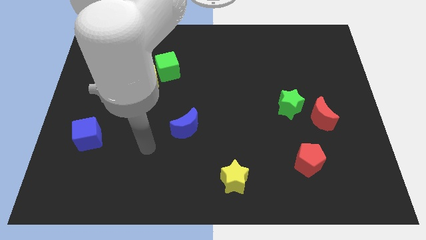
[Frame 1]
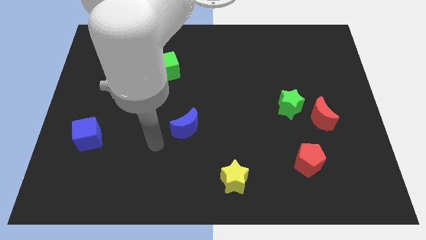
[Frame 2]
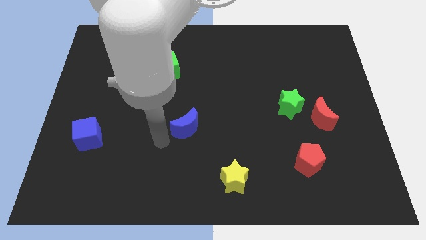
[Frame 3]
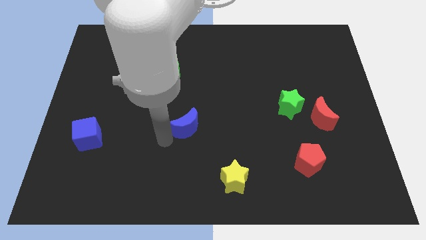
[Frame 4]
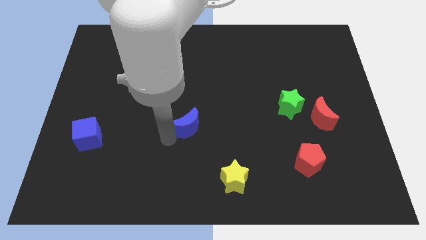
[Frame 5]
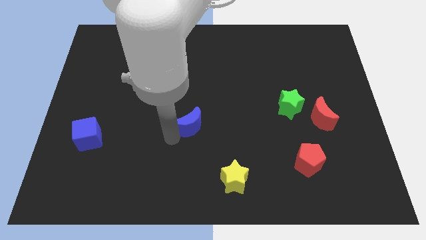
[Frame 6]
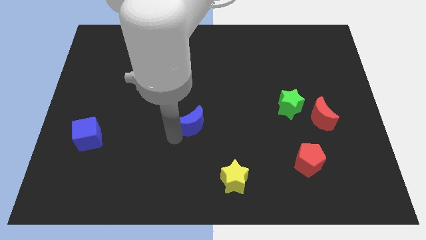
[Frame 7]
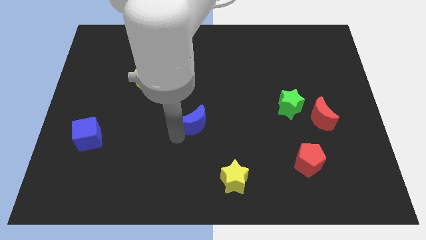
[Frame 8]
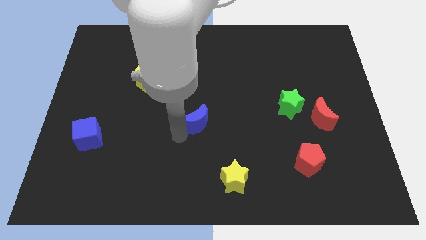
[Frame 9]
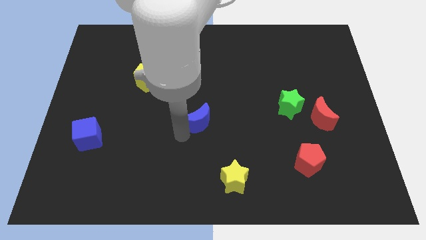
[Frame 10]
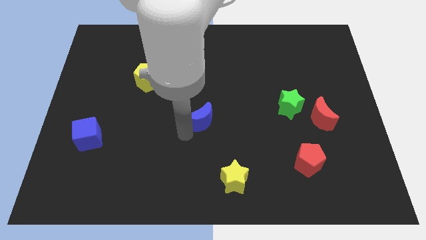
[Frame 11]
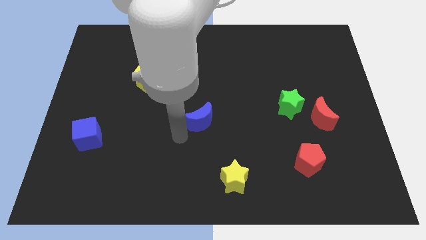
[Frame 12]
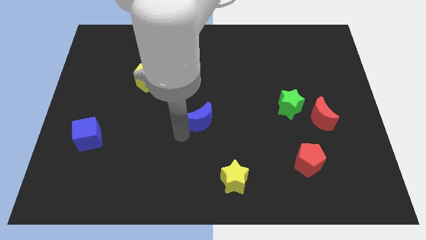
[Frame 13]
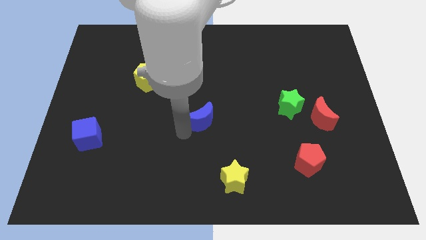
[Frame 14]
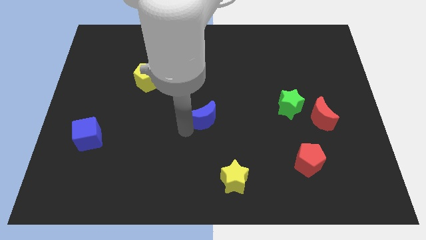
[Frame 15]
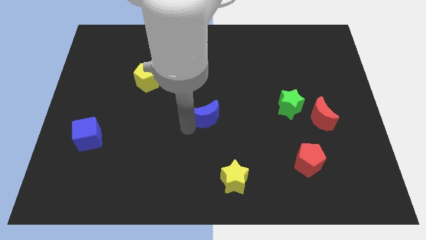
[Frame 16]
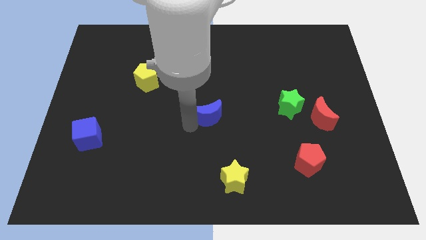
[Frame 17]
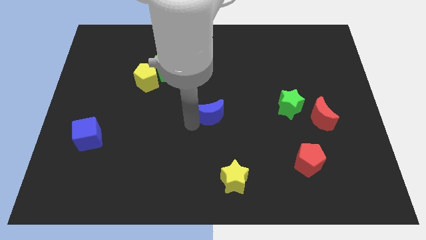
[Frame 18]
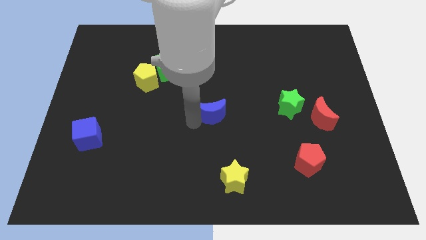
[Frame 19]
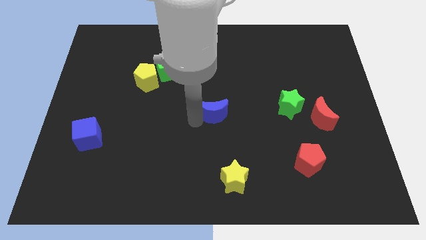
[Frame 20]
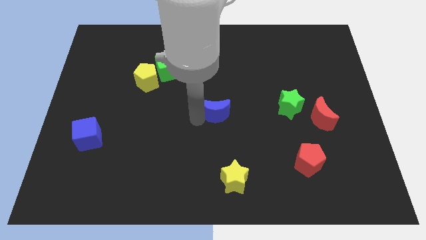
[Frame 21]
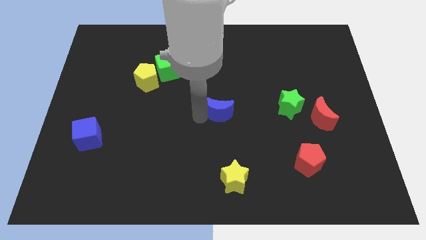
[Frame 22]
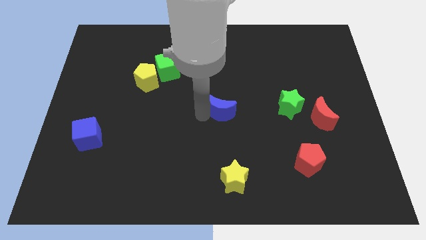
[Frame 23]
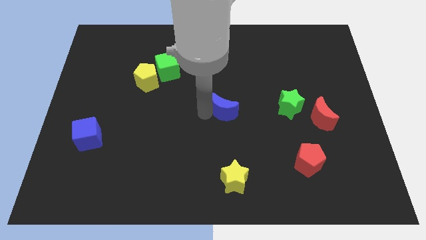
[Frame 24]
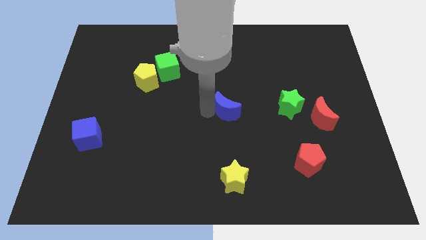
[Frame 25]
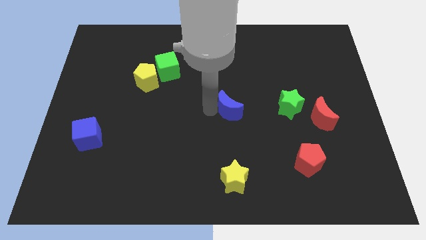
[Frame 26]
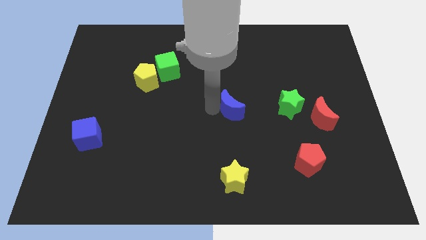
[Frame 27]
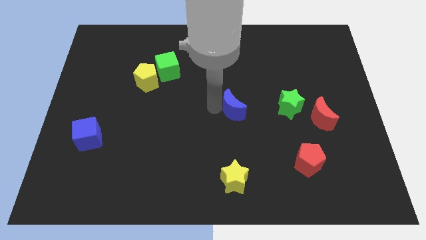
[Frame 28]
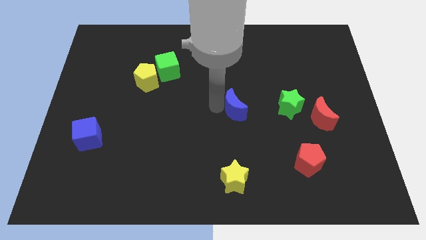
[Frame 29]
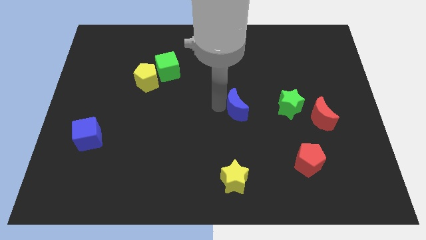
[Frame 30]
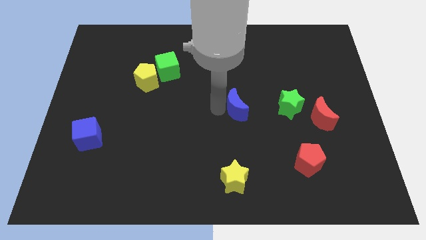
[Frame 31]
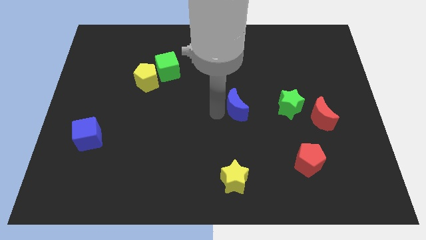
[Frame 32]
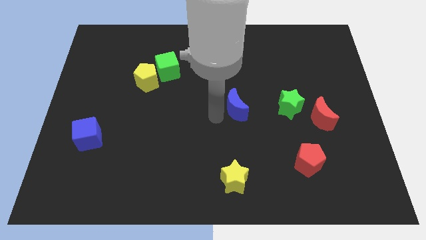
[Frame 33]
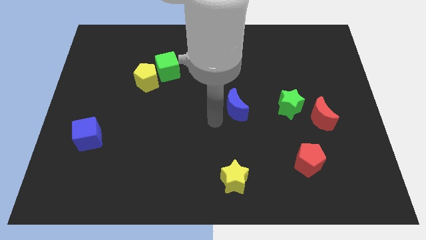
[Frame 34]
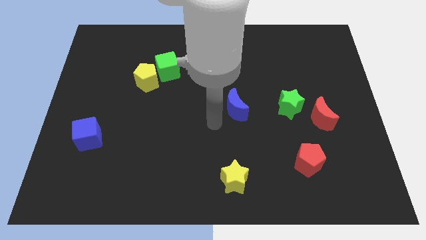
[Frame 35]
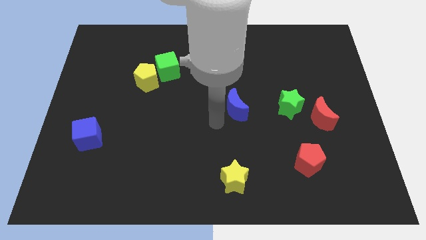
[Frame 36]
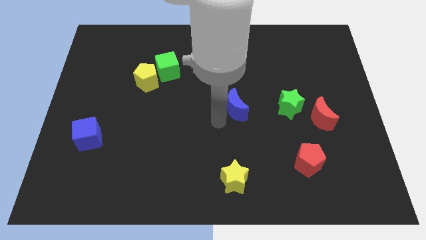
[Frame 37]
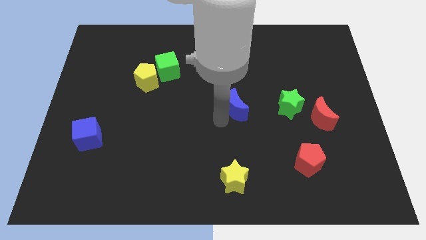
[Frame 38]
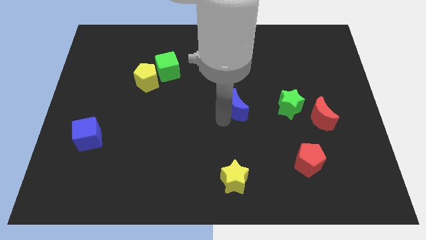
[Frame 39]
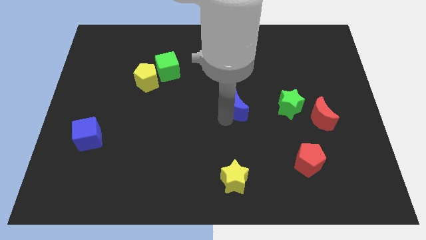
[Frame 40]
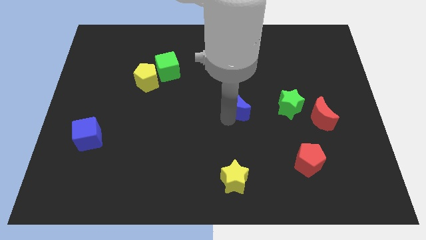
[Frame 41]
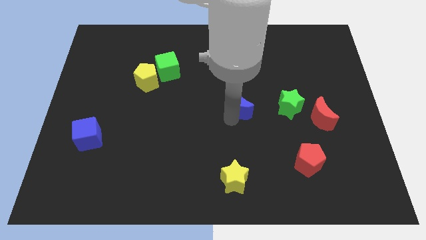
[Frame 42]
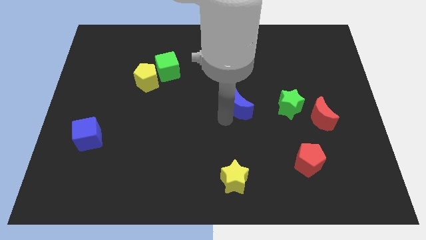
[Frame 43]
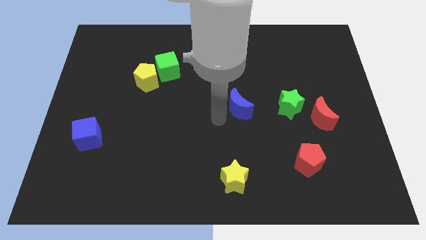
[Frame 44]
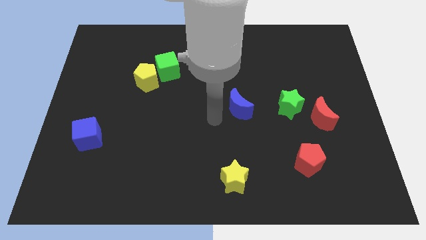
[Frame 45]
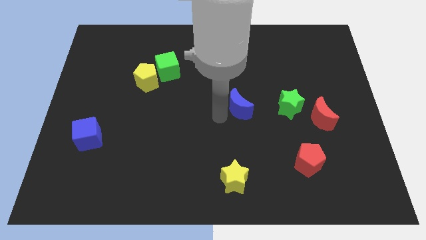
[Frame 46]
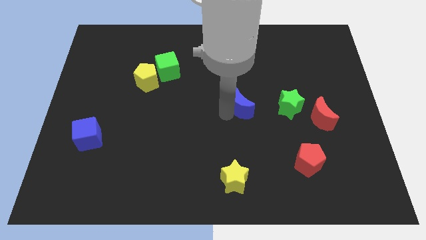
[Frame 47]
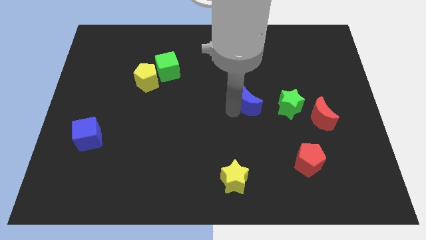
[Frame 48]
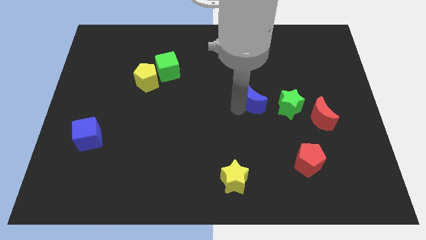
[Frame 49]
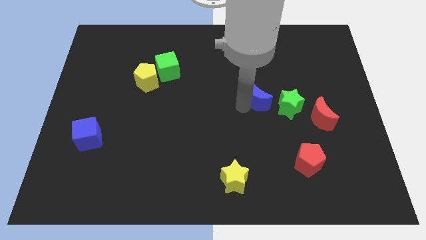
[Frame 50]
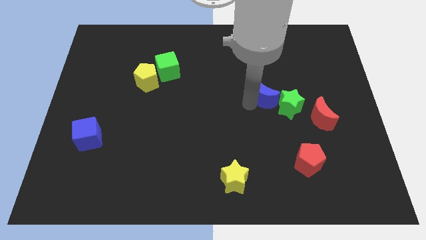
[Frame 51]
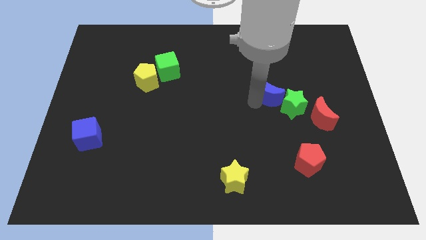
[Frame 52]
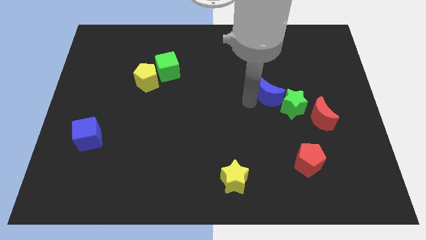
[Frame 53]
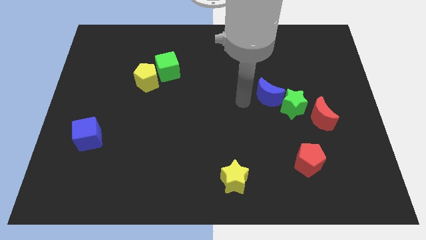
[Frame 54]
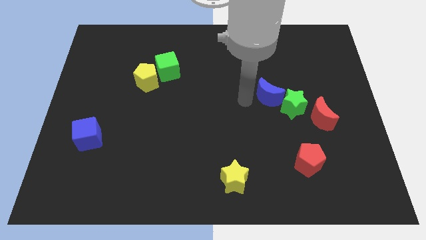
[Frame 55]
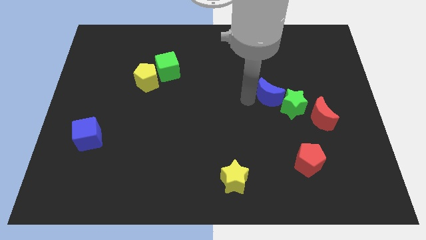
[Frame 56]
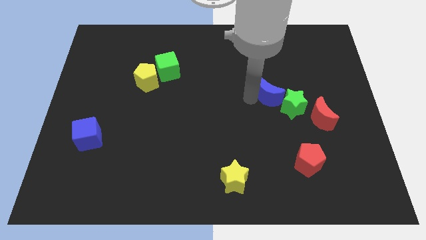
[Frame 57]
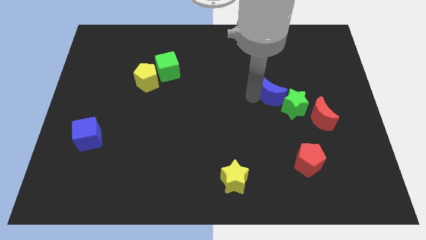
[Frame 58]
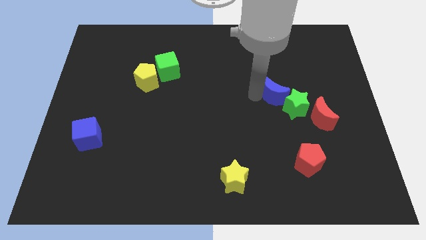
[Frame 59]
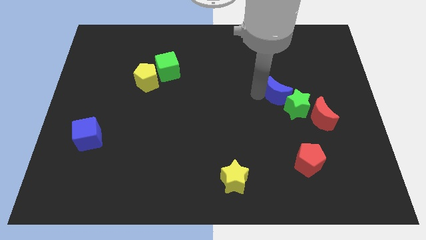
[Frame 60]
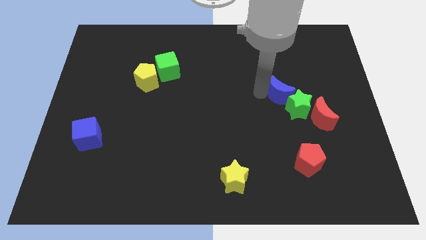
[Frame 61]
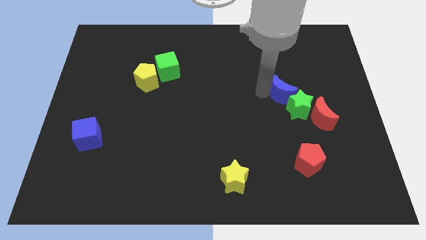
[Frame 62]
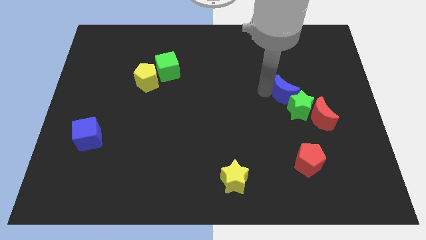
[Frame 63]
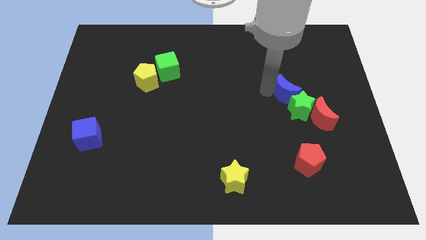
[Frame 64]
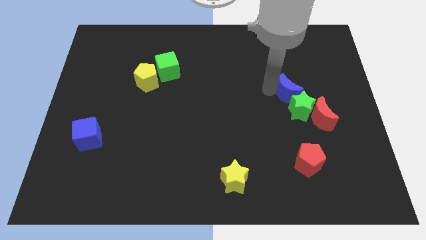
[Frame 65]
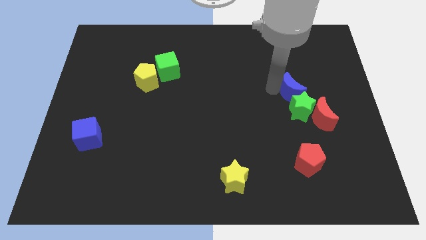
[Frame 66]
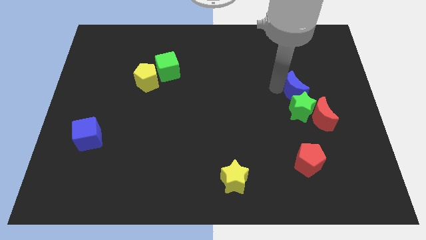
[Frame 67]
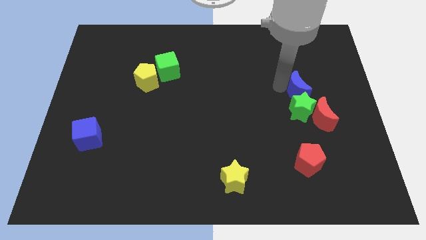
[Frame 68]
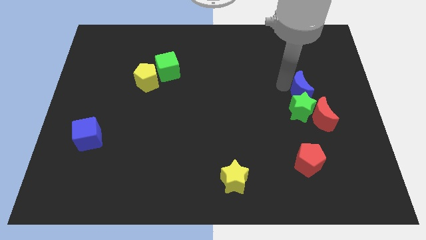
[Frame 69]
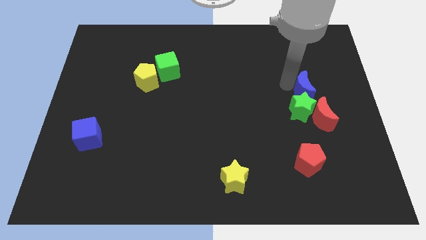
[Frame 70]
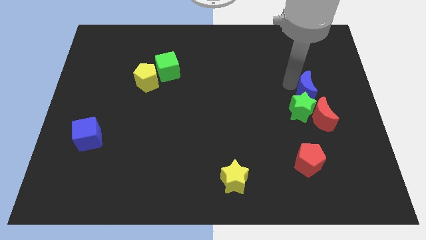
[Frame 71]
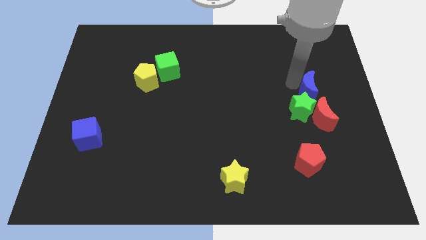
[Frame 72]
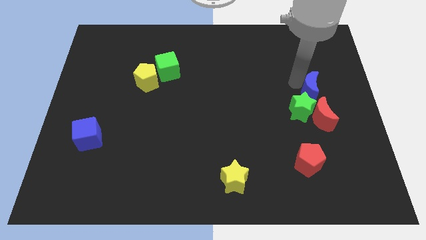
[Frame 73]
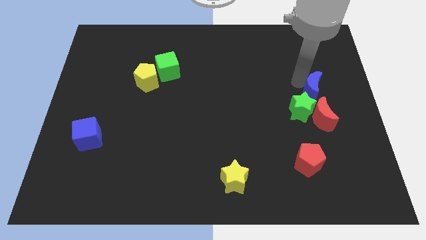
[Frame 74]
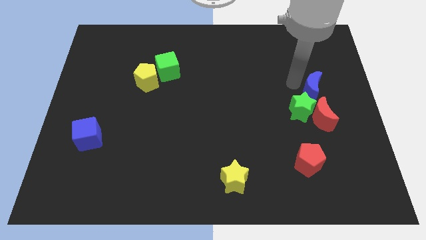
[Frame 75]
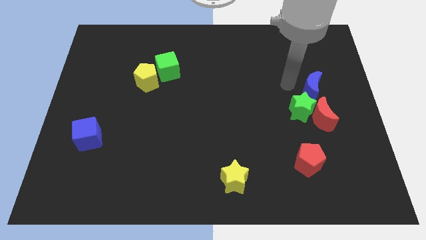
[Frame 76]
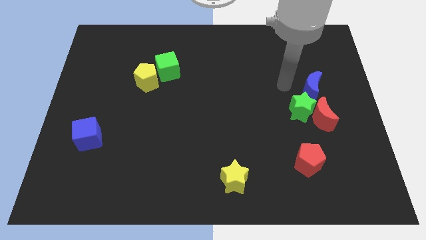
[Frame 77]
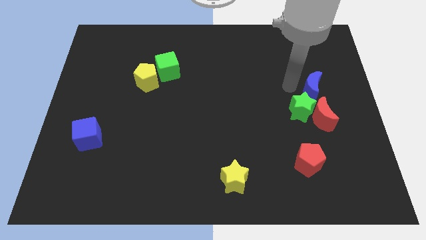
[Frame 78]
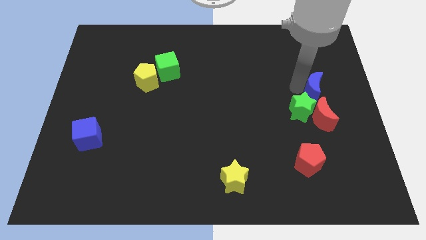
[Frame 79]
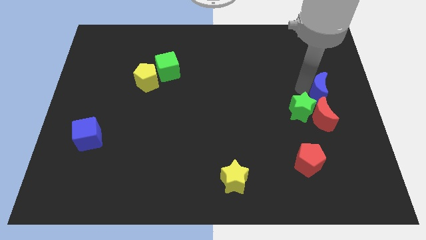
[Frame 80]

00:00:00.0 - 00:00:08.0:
slide the blue moon to the right side
